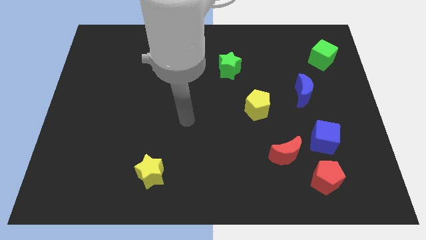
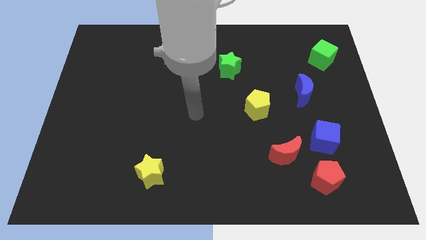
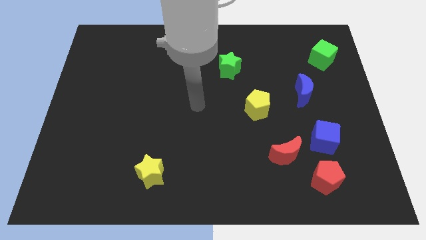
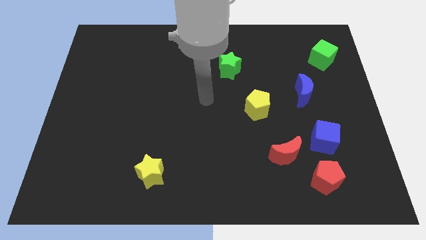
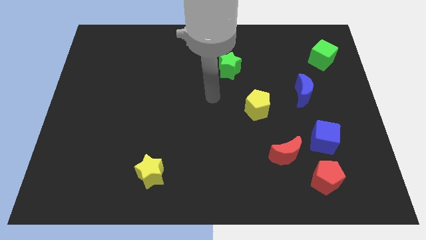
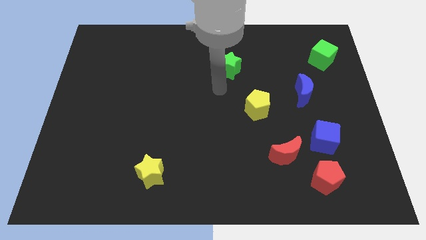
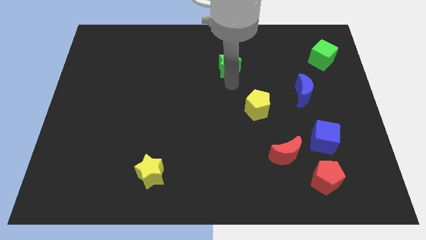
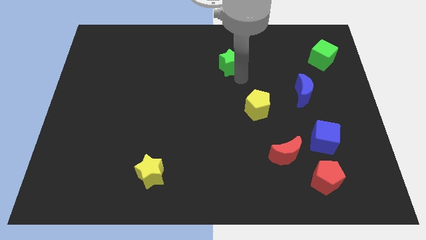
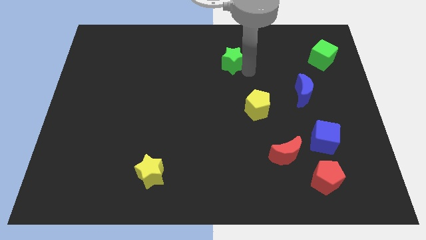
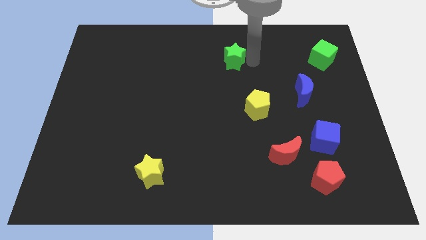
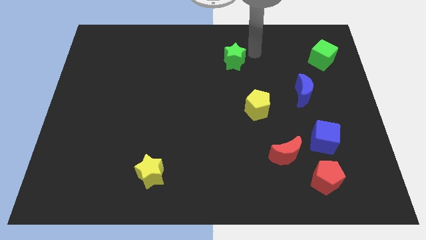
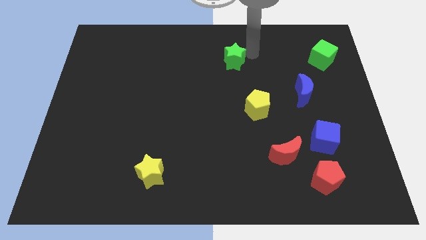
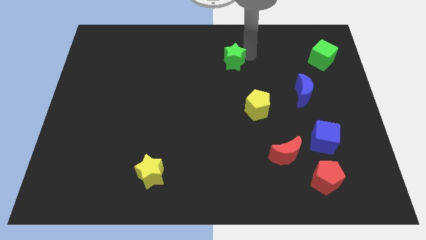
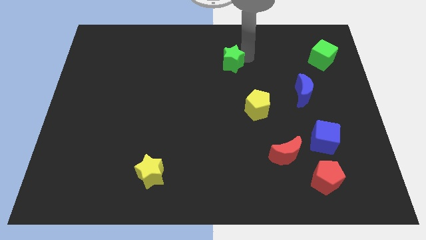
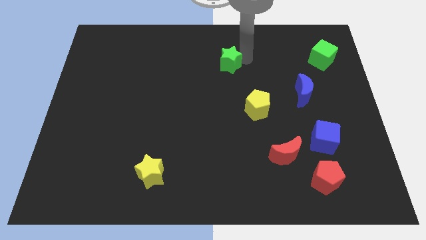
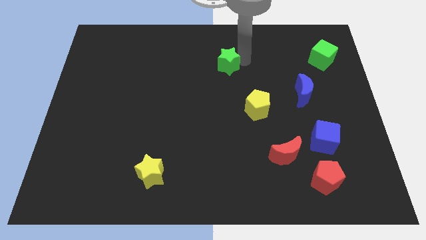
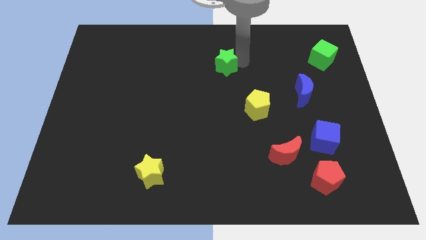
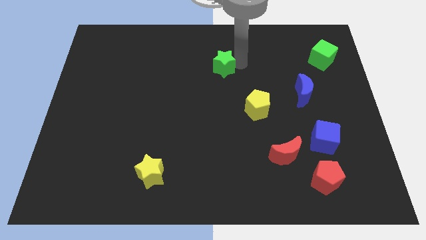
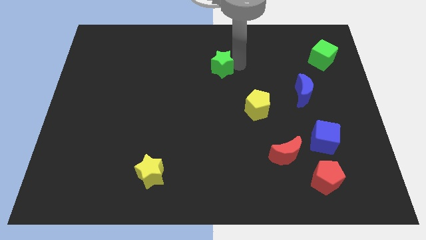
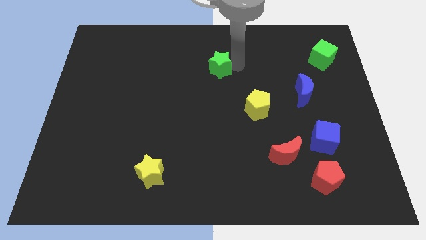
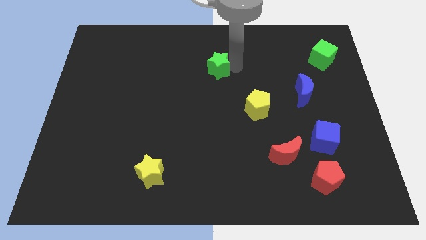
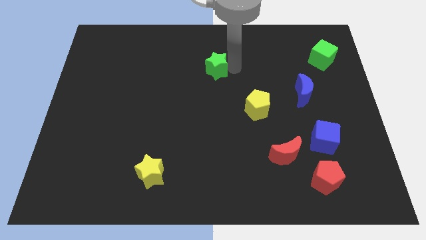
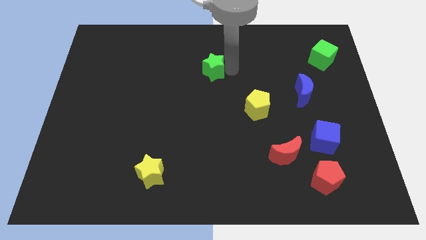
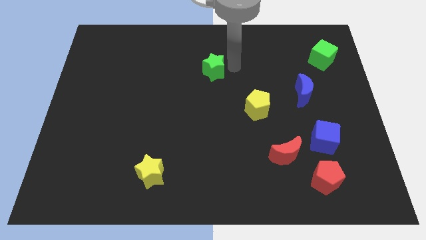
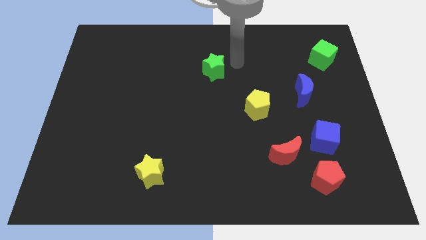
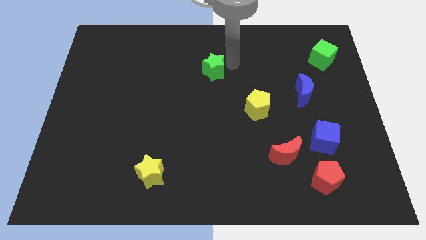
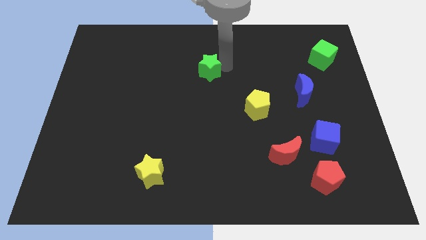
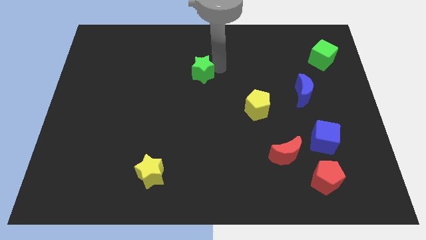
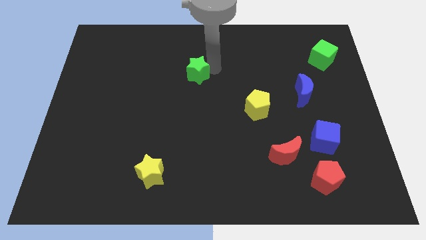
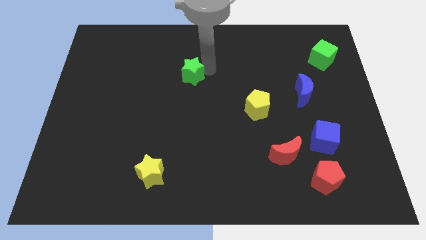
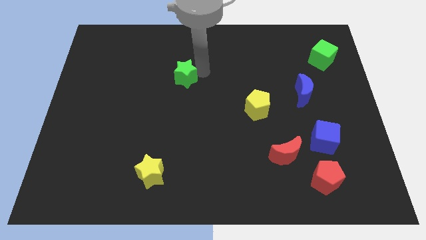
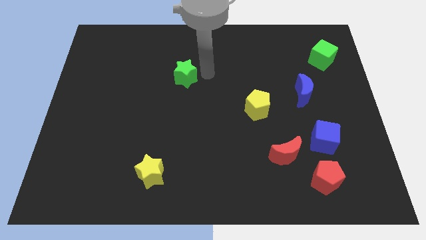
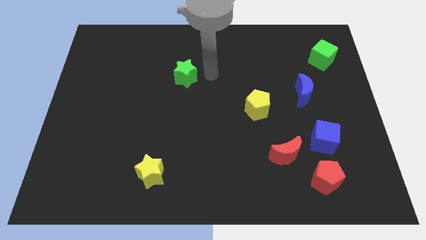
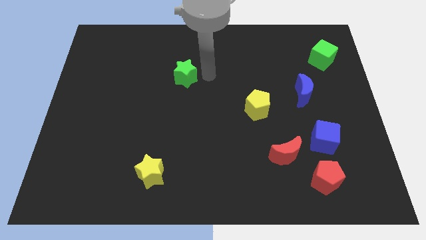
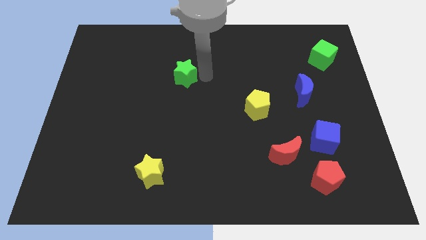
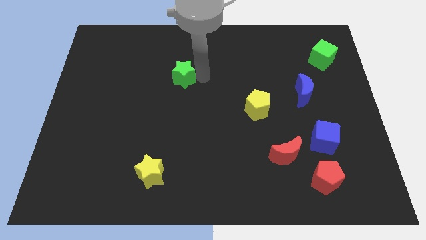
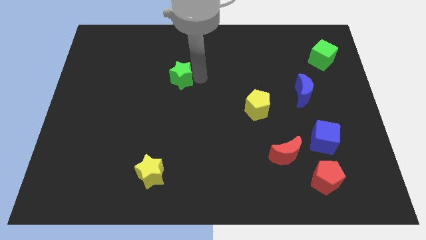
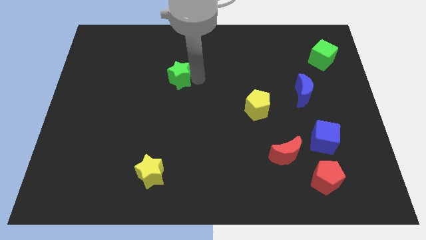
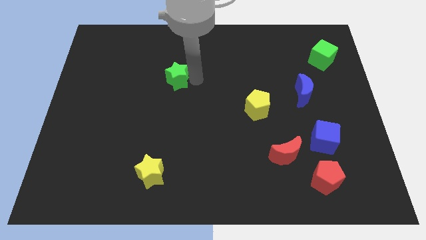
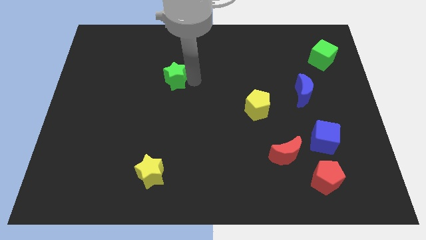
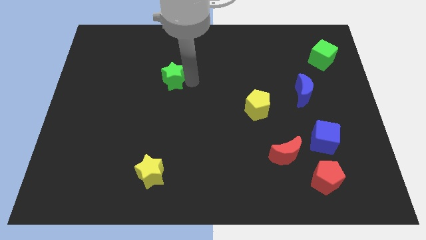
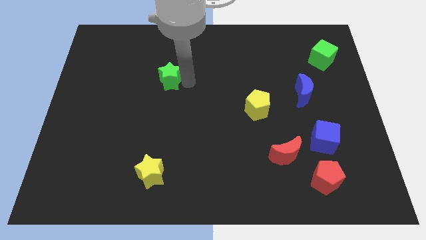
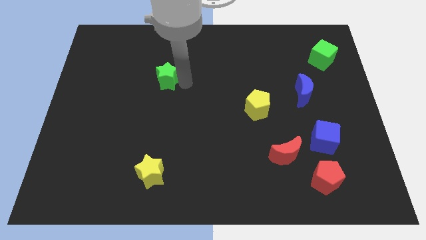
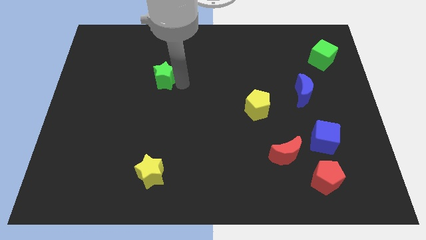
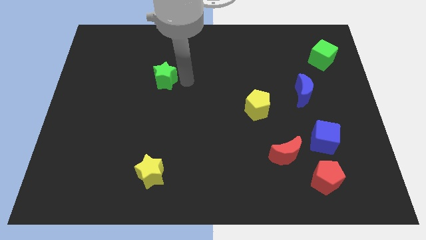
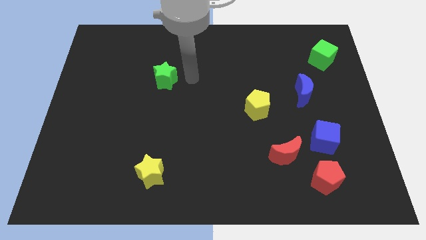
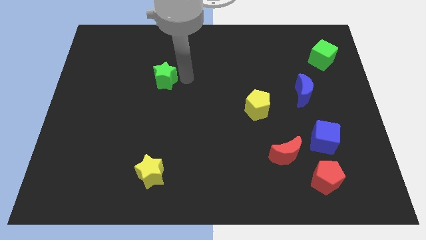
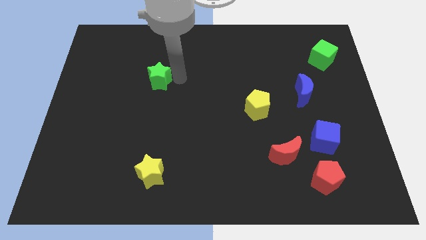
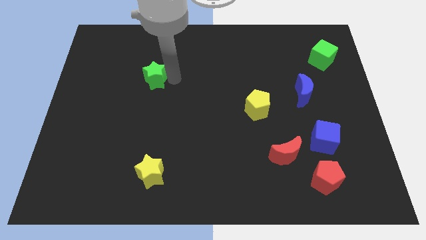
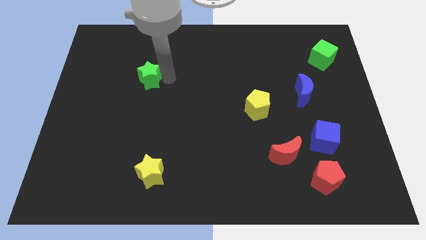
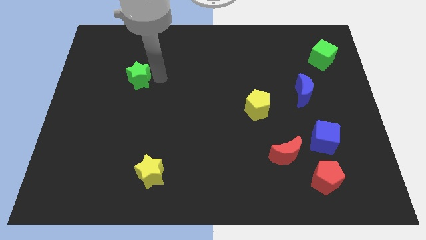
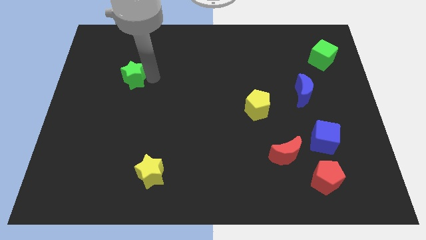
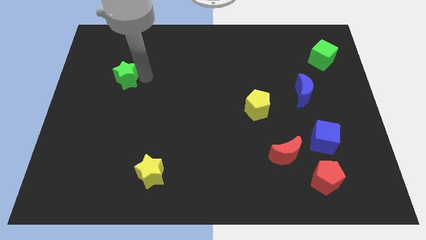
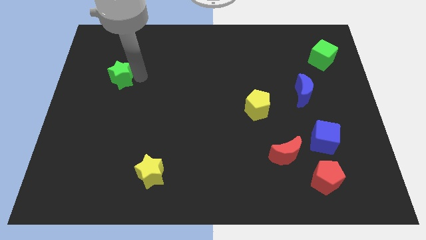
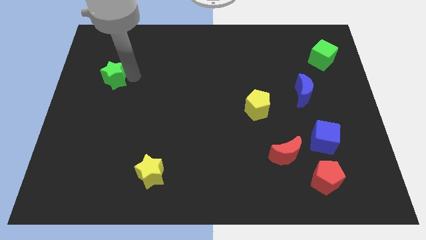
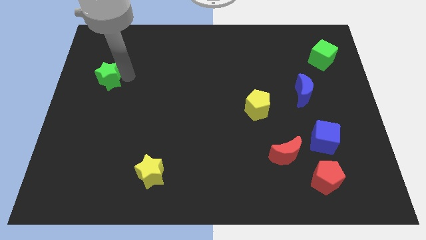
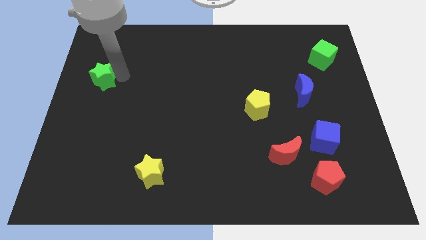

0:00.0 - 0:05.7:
move the green star to the center left

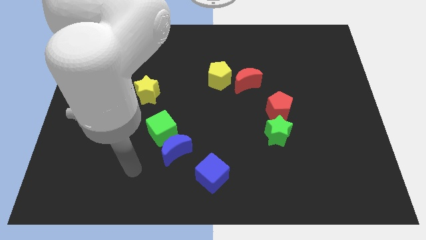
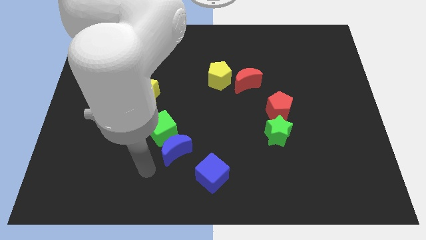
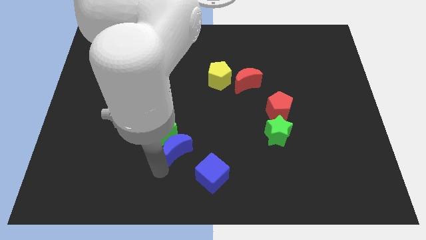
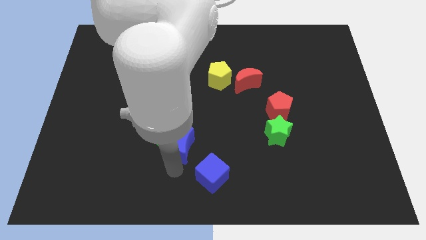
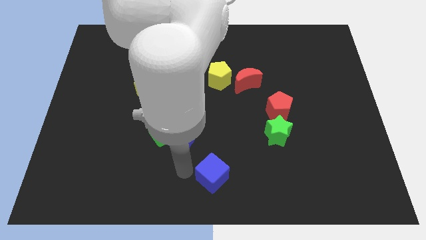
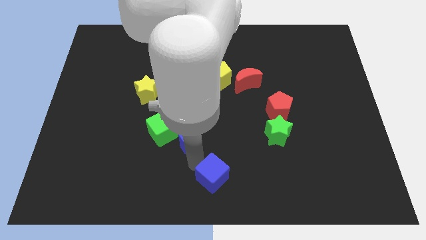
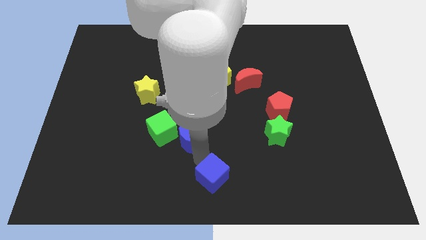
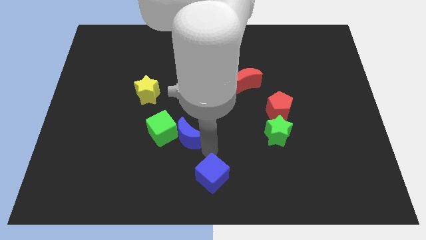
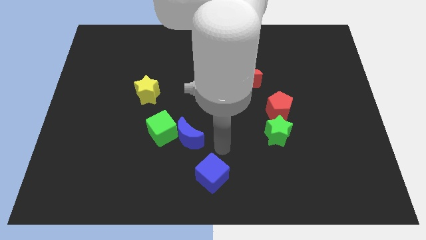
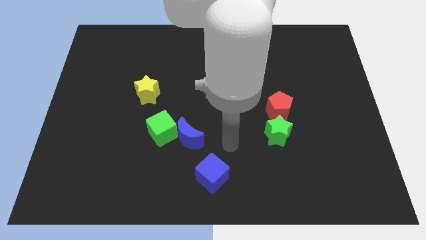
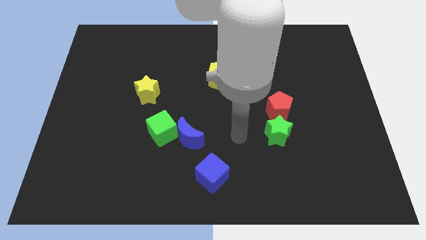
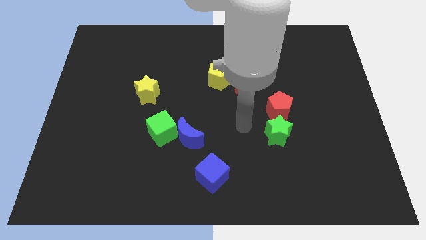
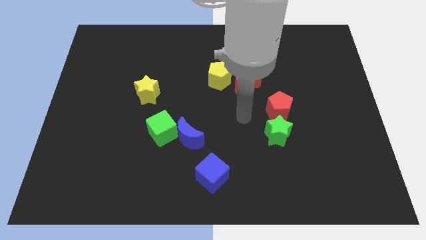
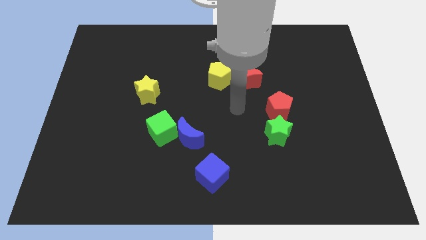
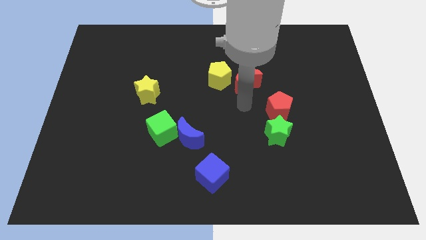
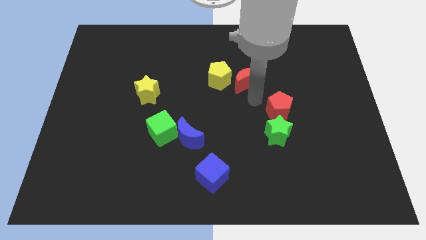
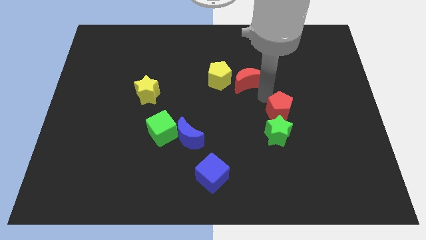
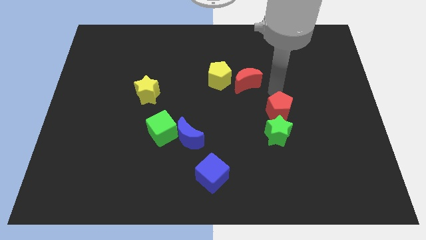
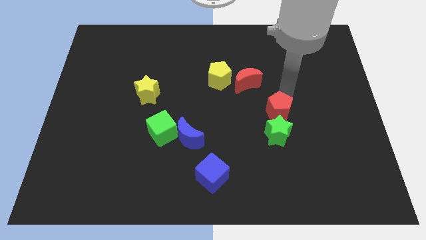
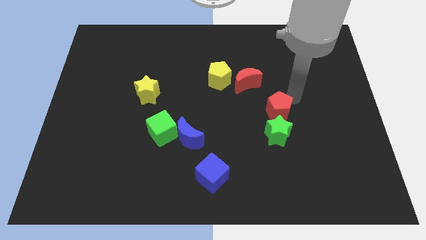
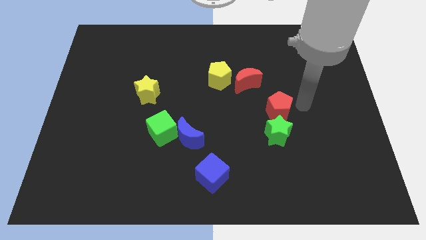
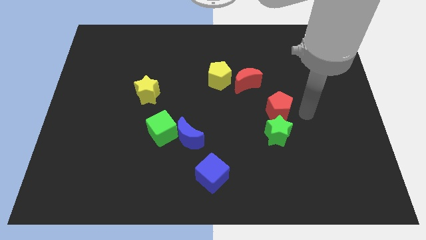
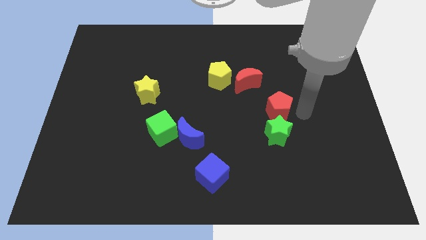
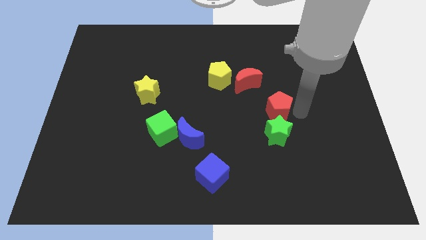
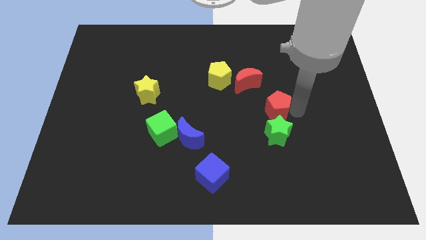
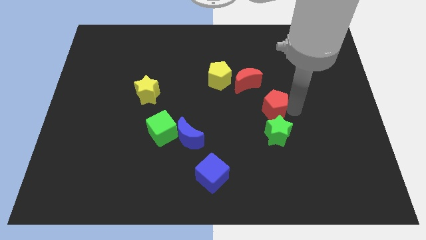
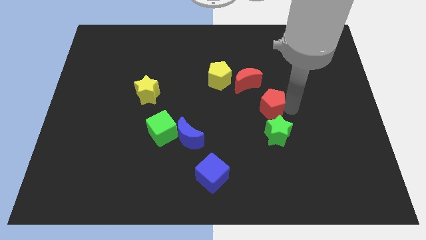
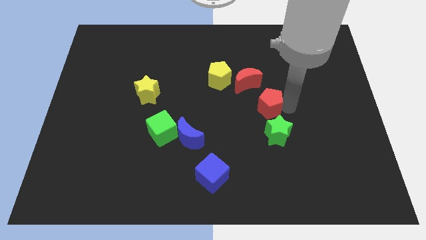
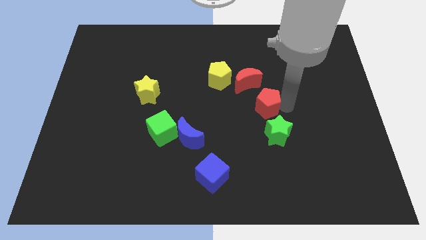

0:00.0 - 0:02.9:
slide the red pentagon to the middle
